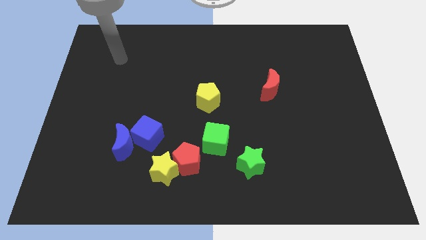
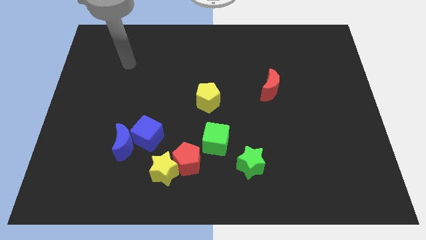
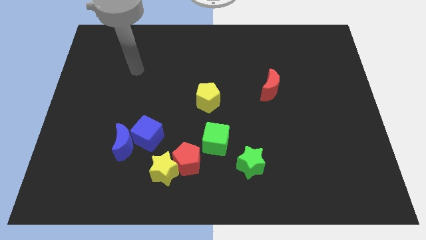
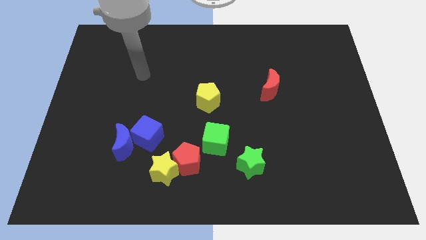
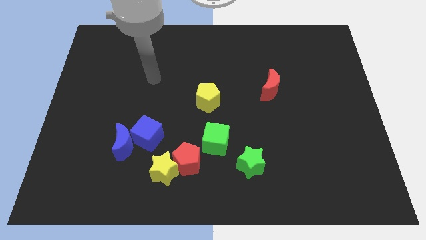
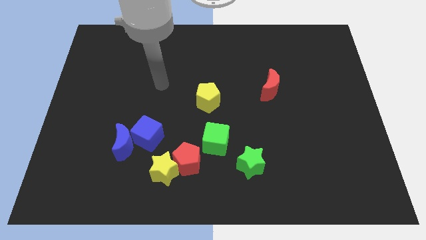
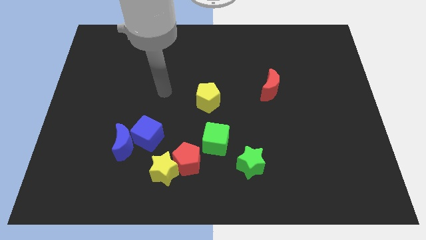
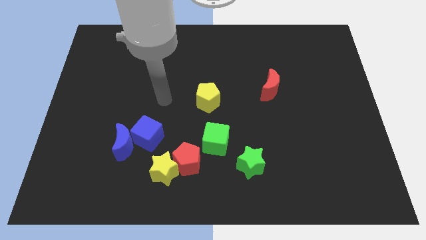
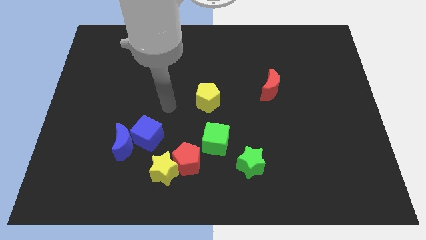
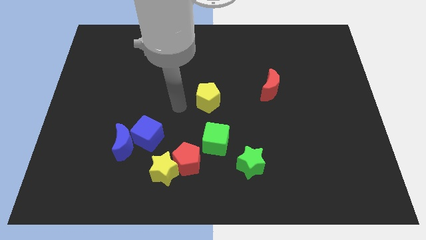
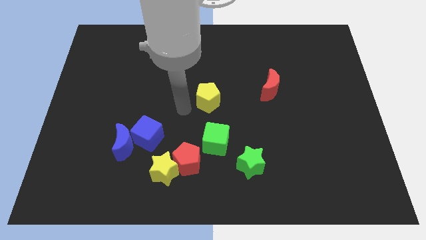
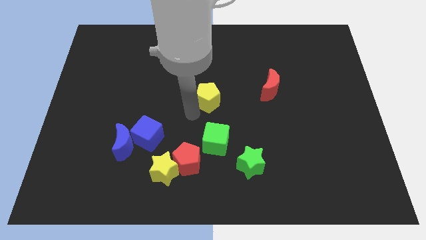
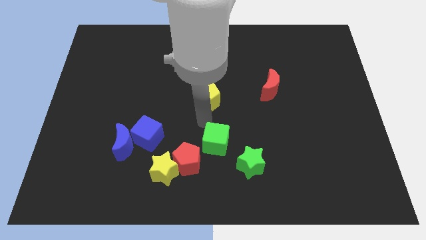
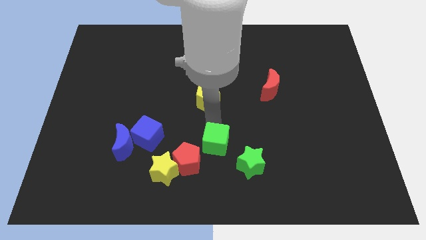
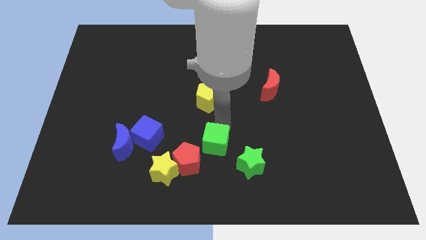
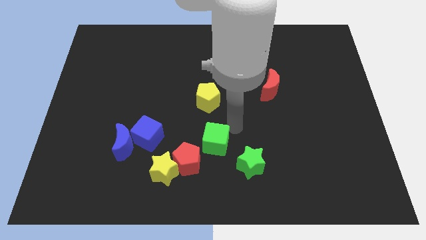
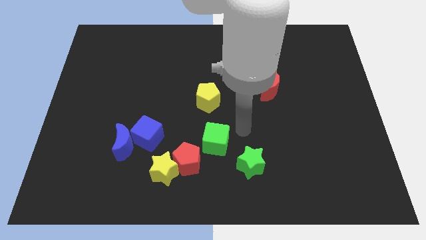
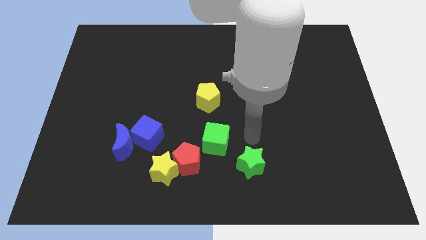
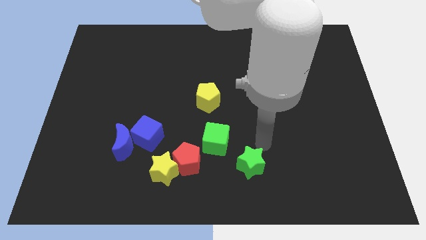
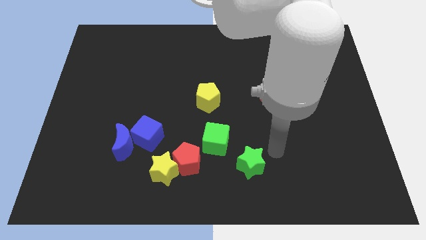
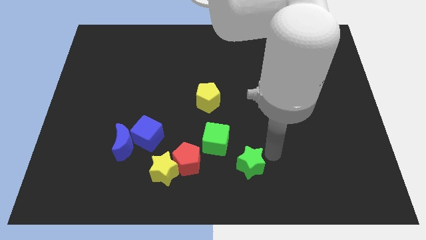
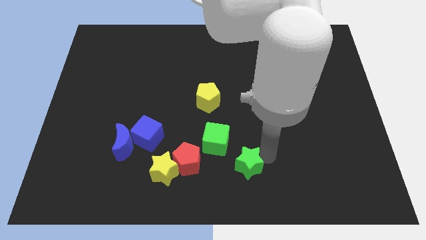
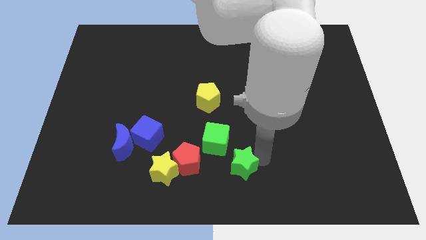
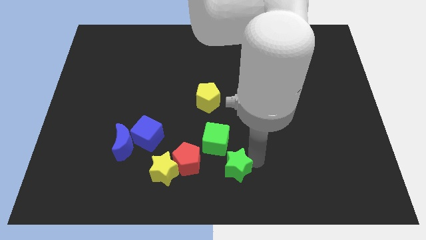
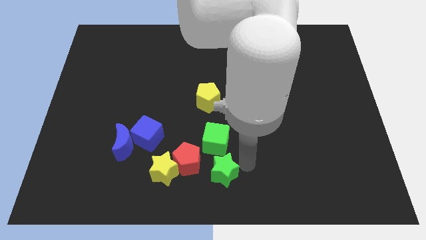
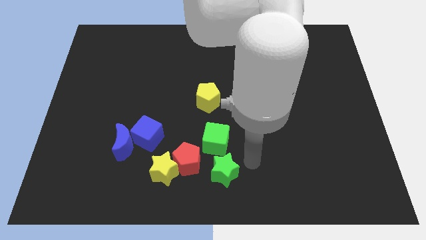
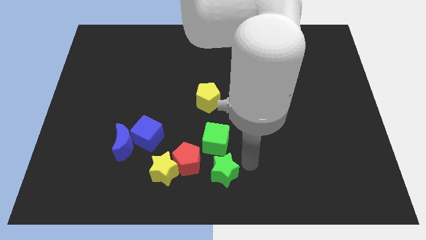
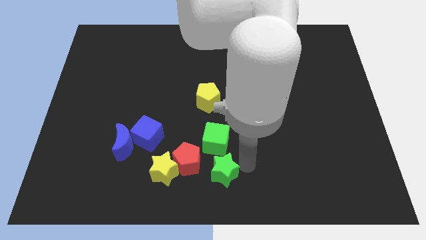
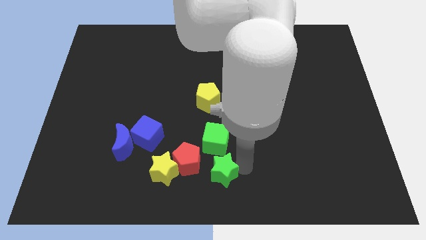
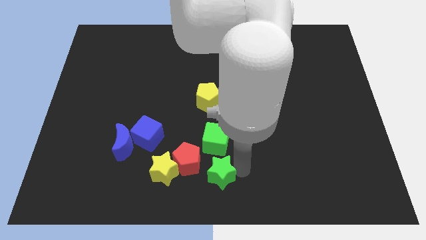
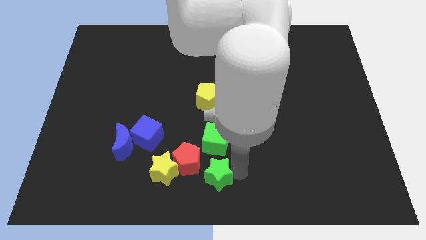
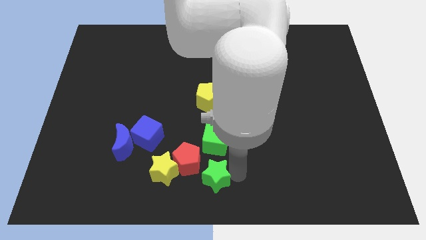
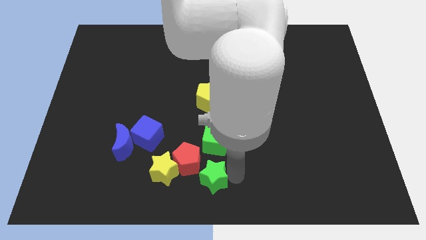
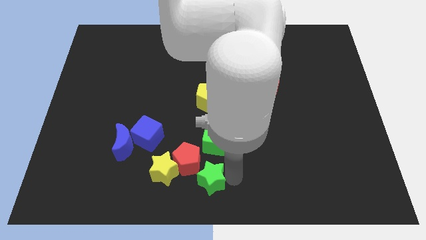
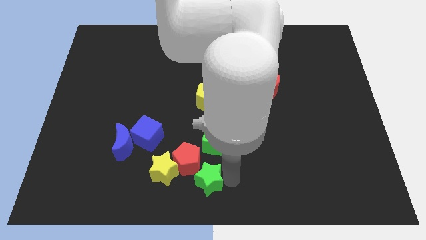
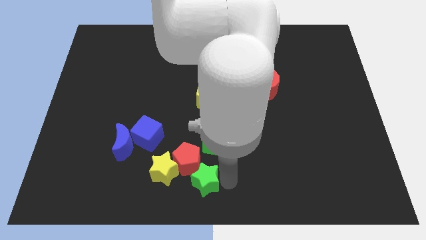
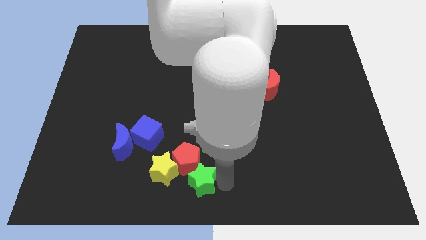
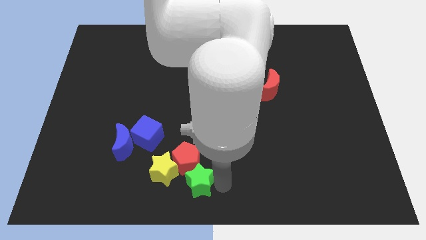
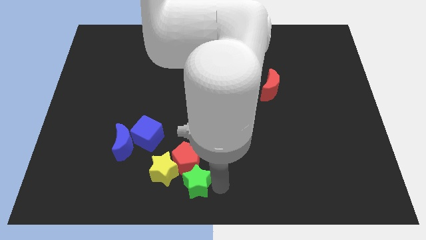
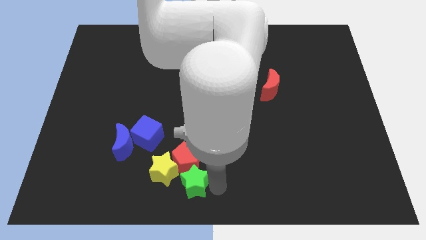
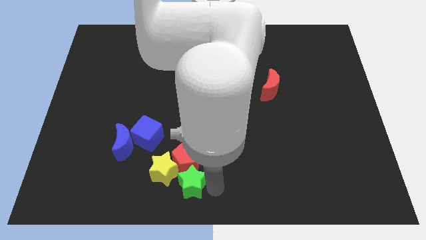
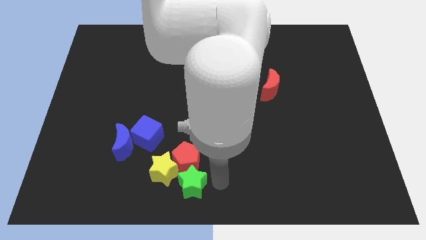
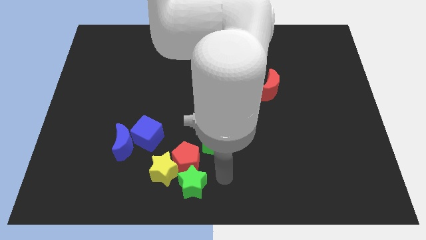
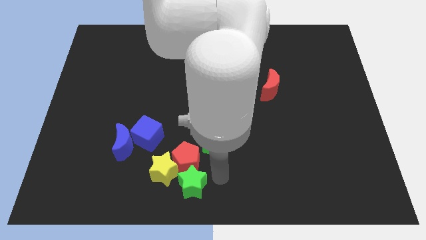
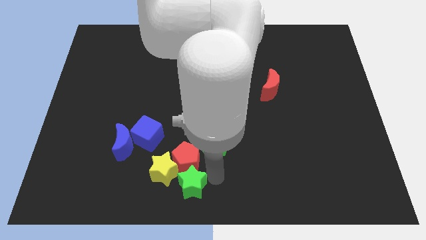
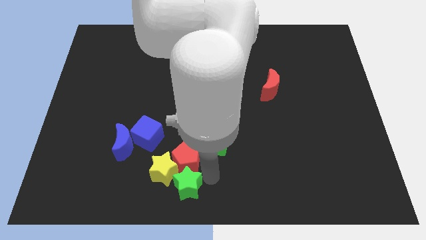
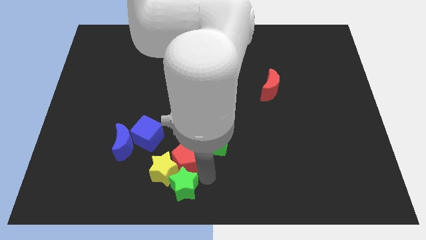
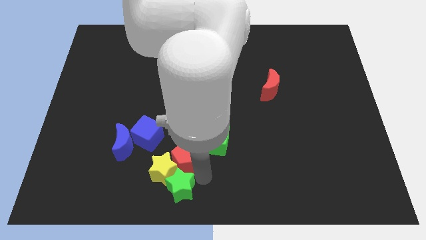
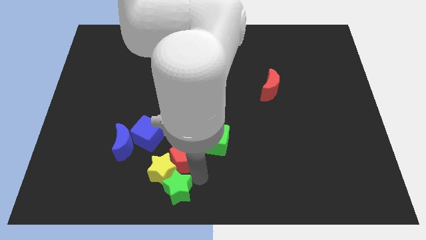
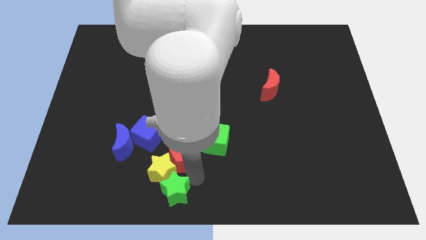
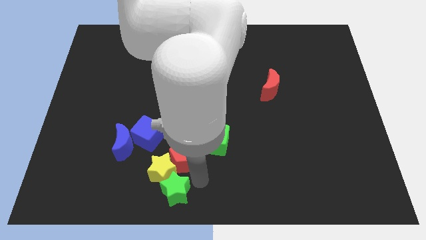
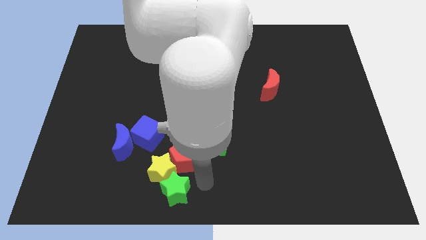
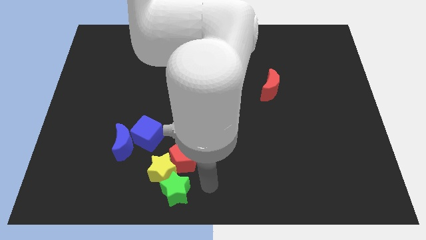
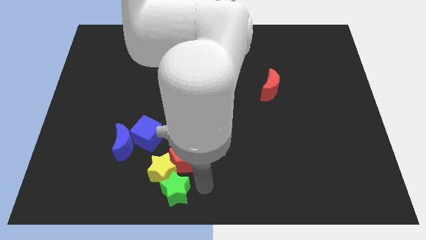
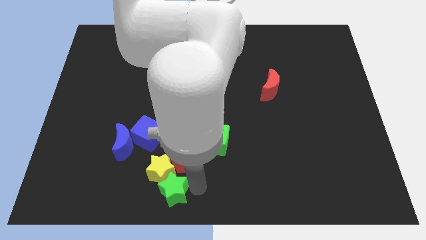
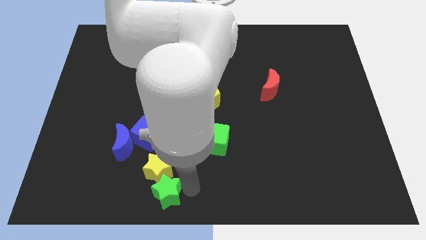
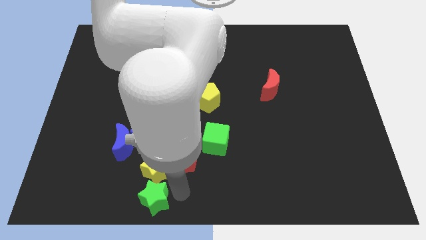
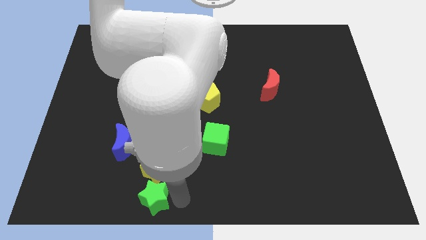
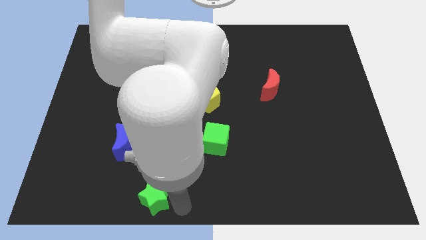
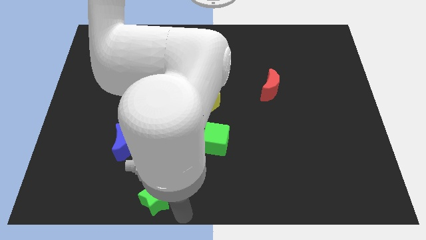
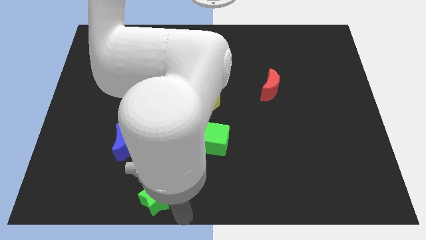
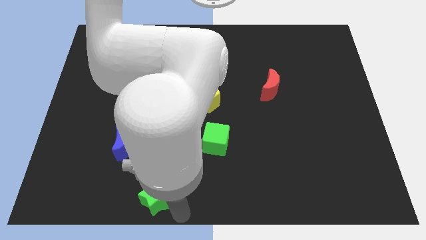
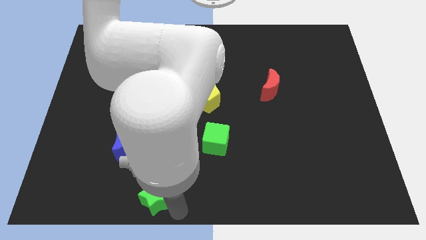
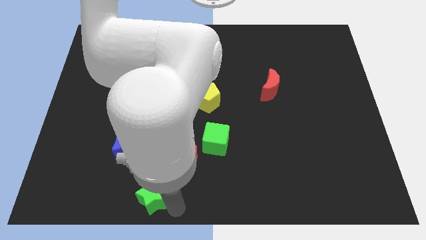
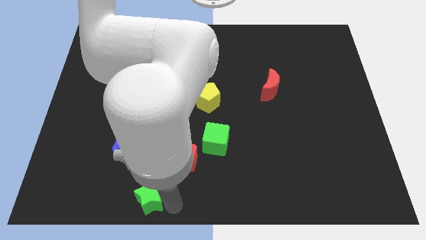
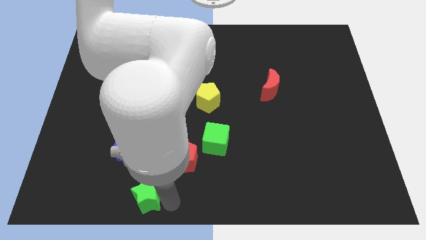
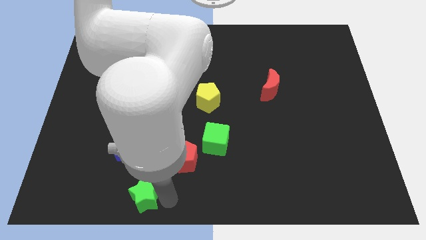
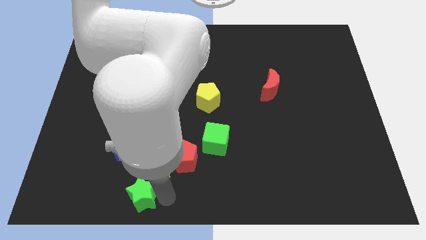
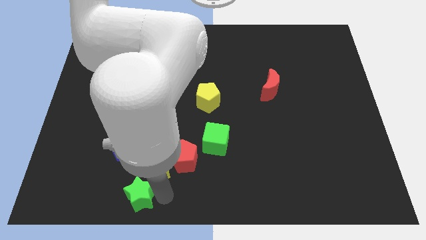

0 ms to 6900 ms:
slide the green star to the left

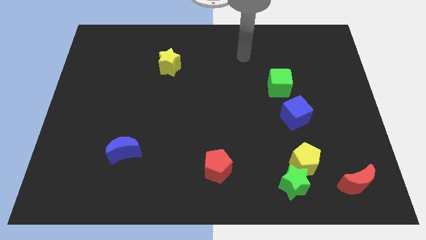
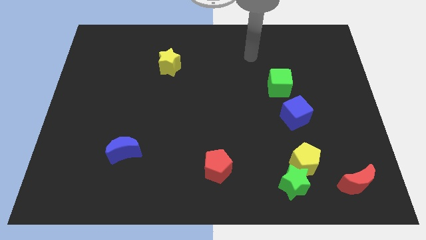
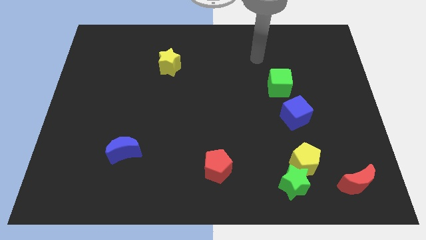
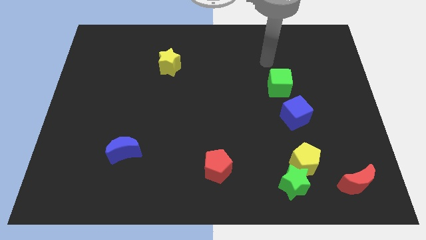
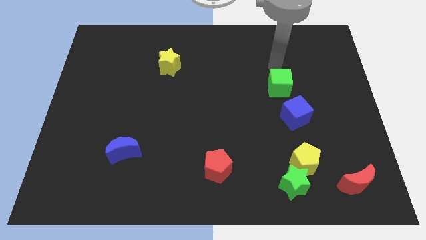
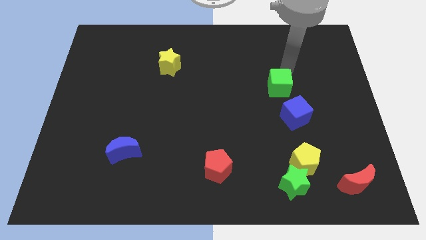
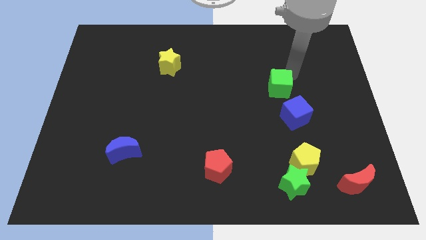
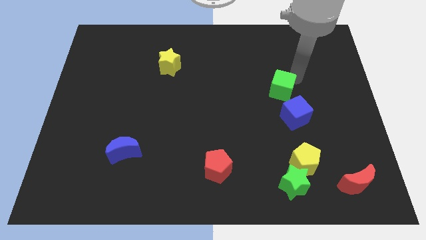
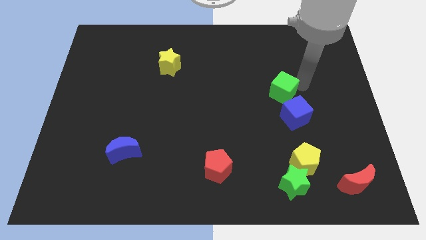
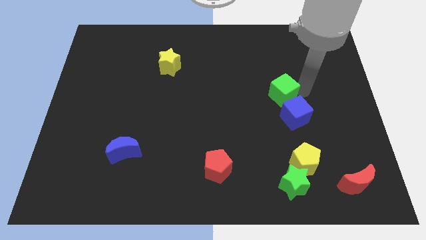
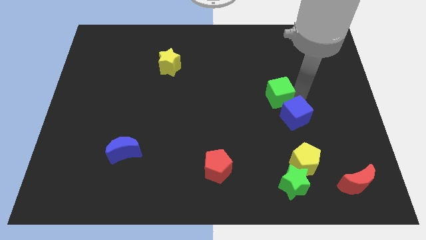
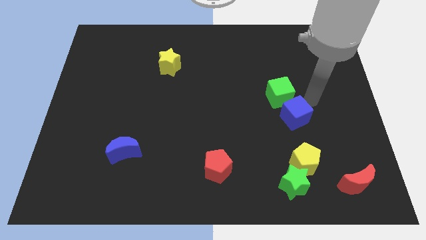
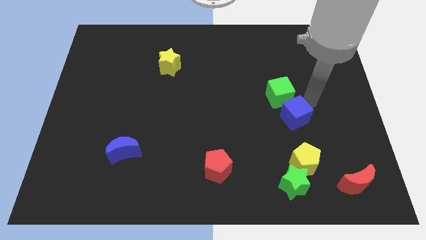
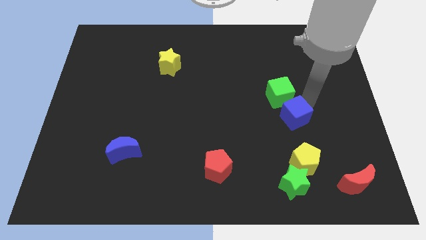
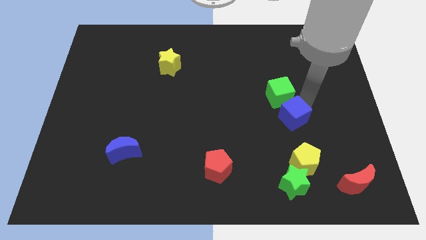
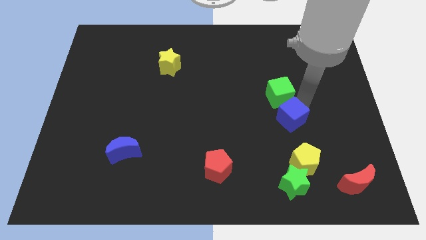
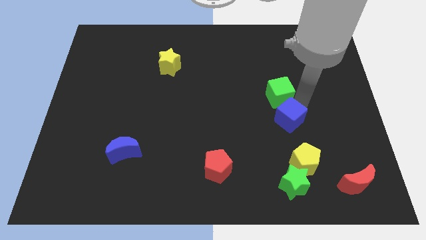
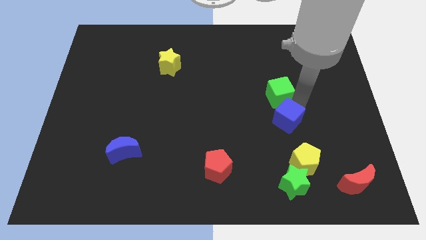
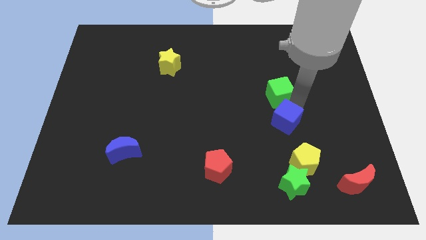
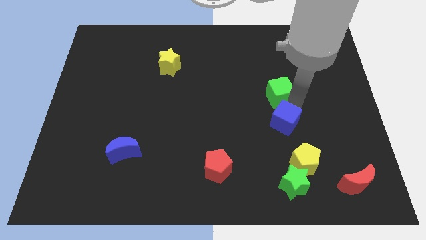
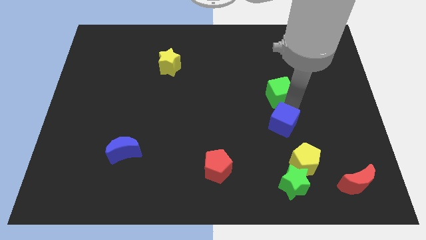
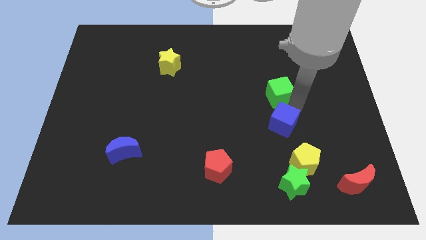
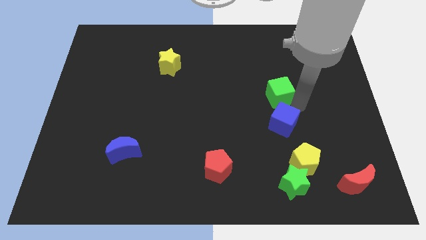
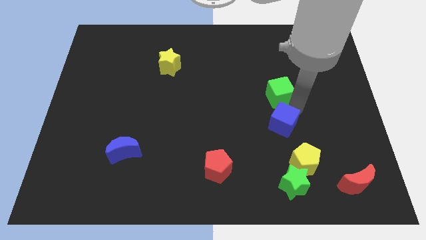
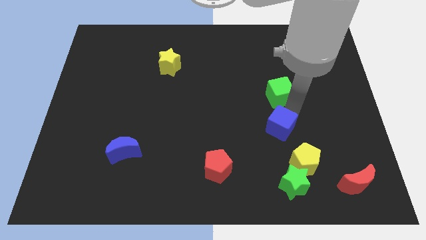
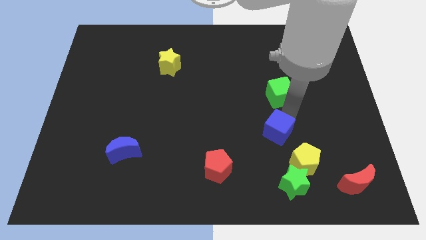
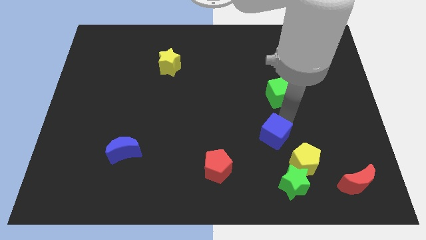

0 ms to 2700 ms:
move the blue cube a little diagonally down and to the left
